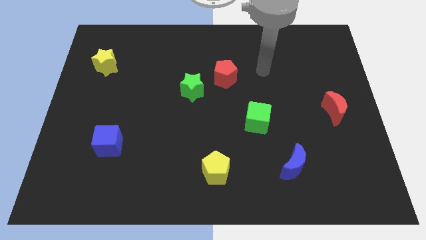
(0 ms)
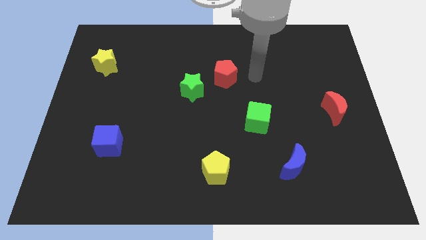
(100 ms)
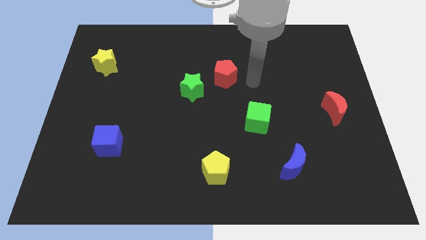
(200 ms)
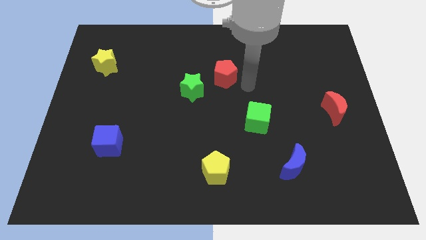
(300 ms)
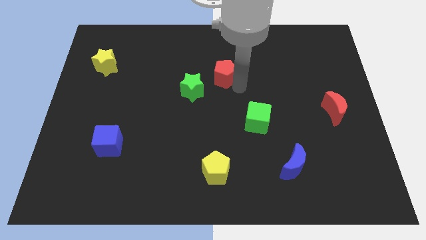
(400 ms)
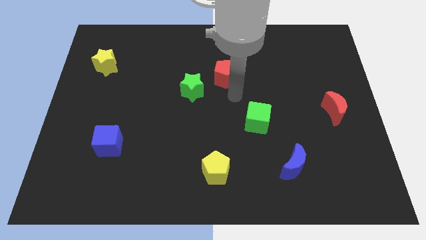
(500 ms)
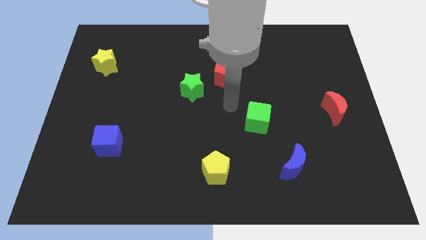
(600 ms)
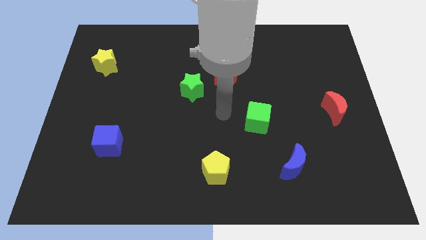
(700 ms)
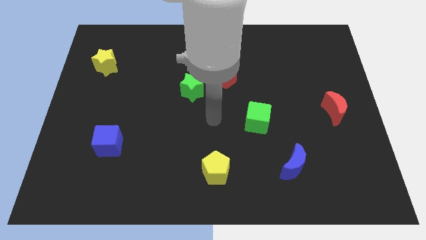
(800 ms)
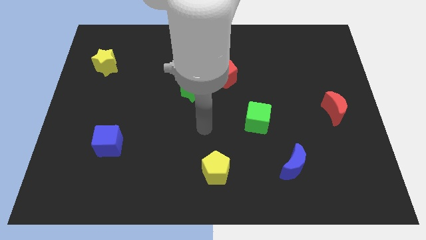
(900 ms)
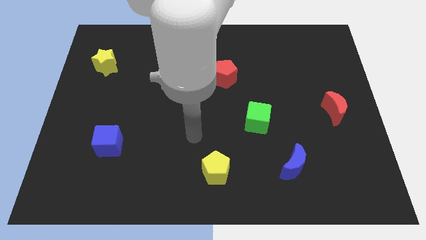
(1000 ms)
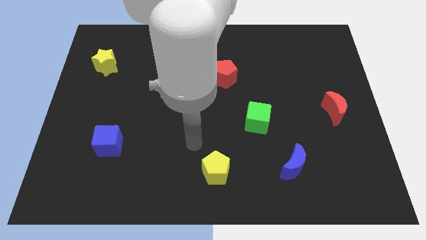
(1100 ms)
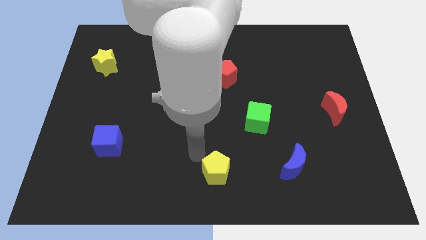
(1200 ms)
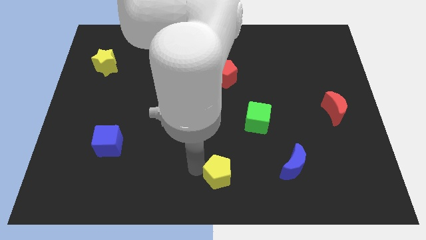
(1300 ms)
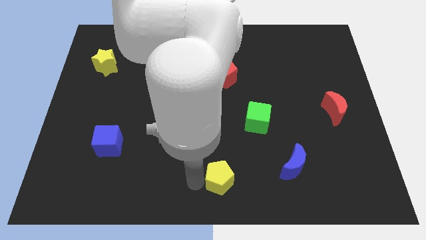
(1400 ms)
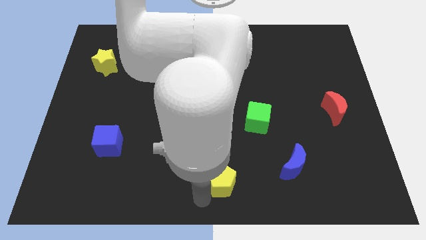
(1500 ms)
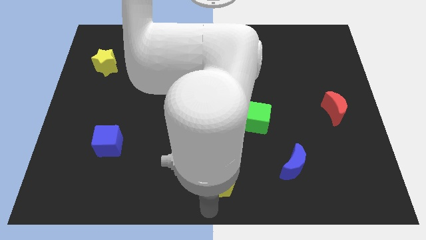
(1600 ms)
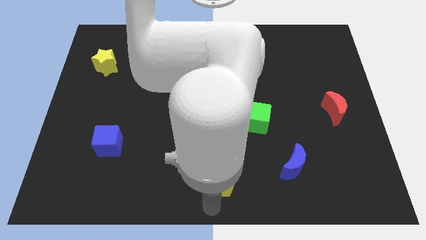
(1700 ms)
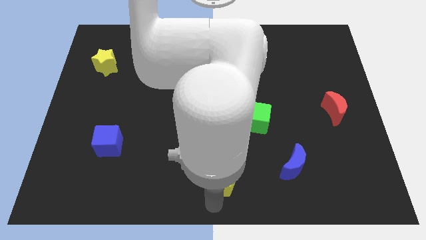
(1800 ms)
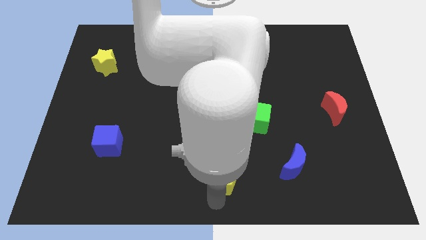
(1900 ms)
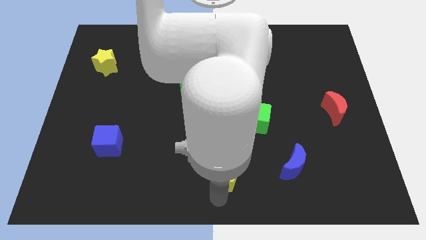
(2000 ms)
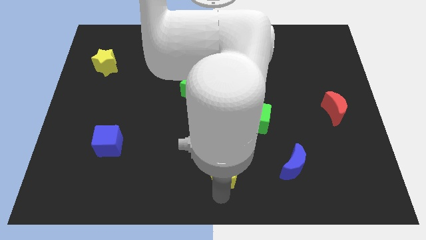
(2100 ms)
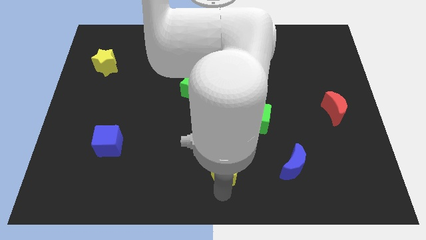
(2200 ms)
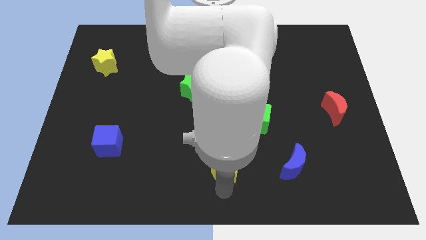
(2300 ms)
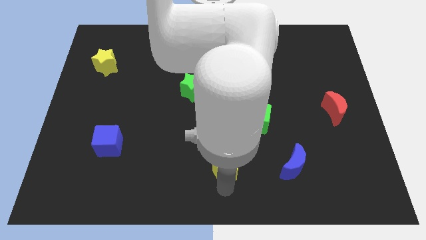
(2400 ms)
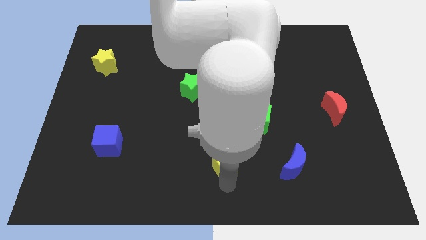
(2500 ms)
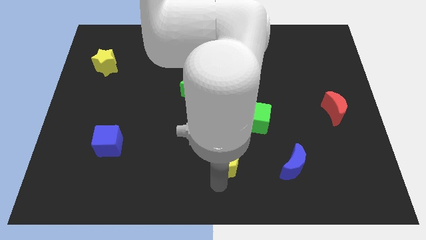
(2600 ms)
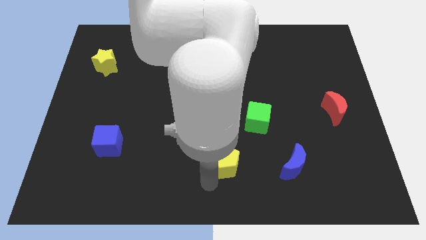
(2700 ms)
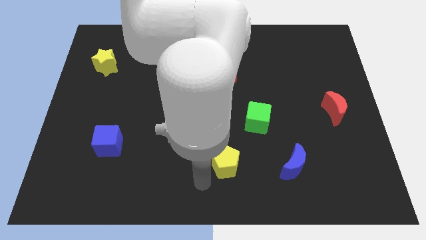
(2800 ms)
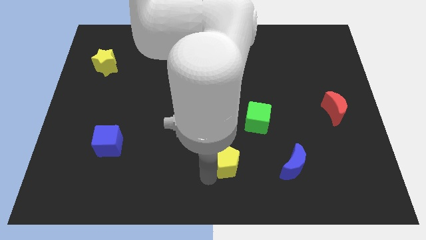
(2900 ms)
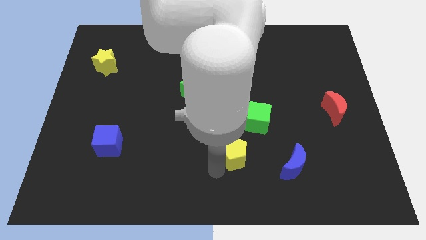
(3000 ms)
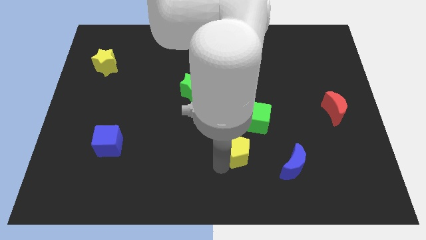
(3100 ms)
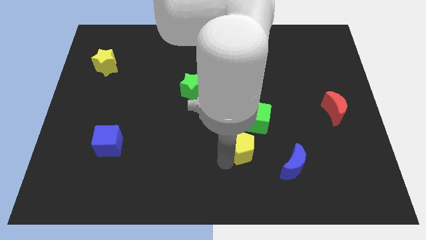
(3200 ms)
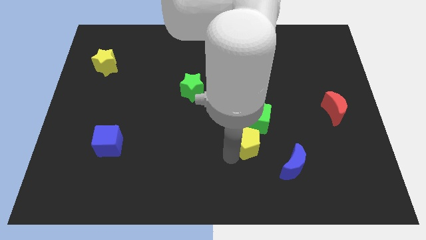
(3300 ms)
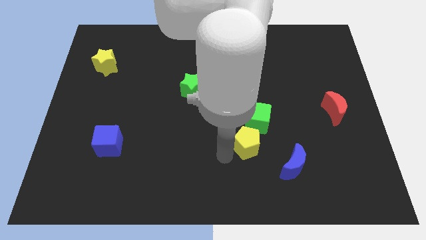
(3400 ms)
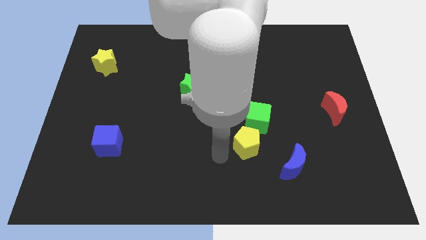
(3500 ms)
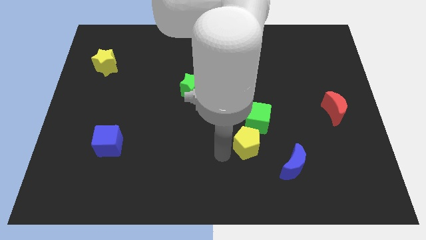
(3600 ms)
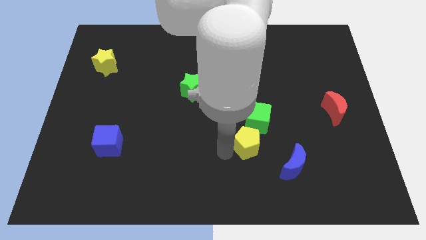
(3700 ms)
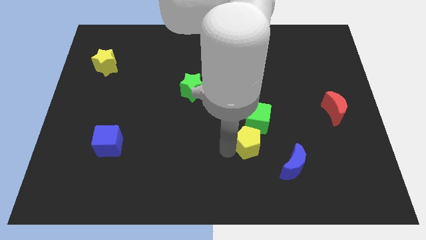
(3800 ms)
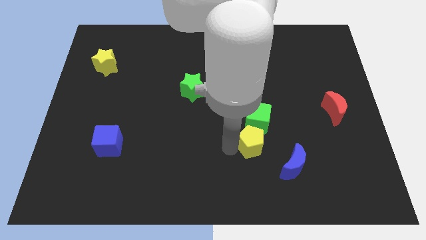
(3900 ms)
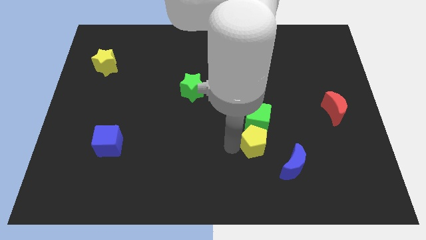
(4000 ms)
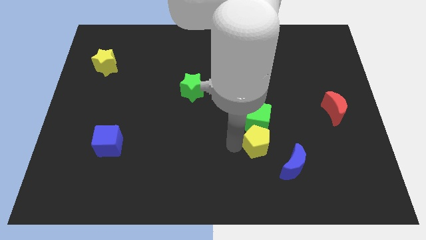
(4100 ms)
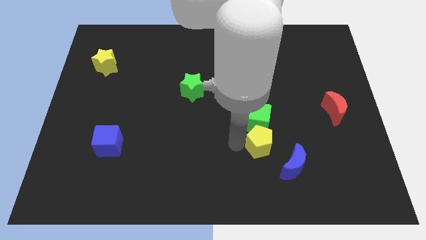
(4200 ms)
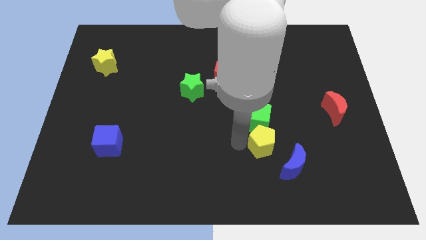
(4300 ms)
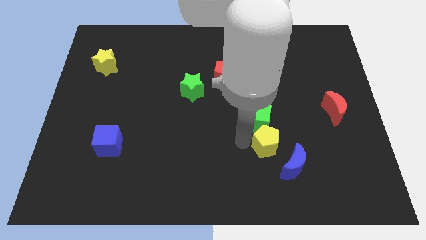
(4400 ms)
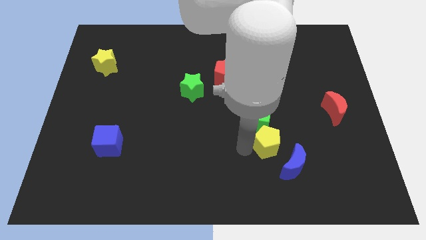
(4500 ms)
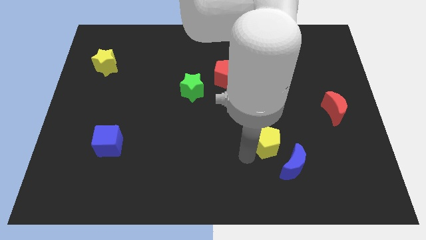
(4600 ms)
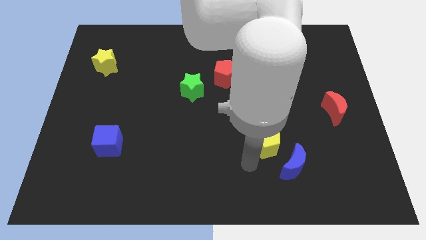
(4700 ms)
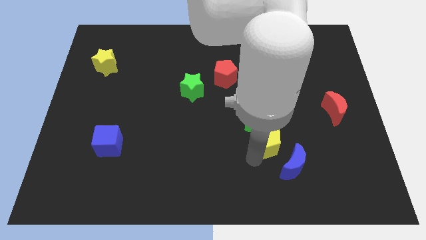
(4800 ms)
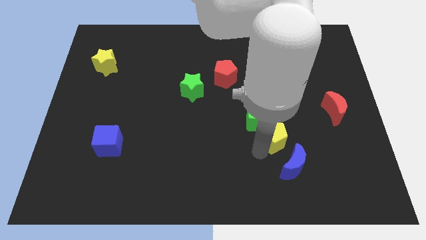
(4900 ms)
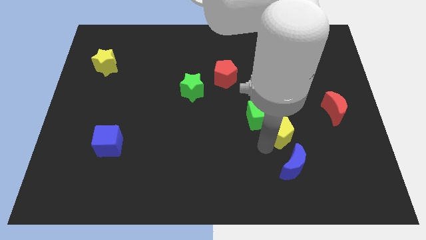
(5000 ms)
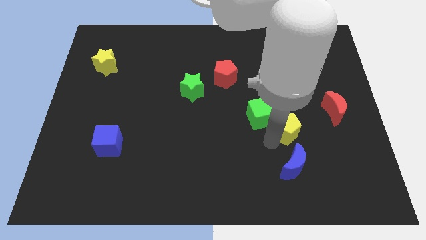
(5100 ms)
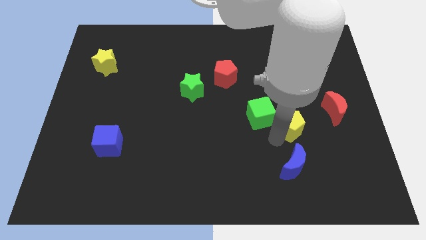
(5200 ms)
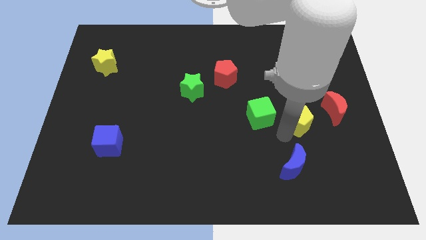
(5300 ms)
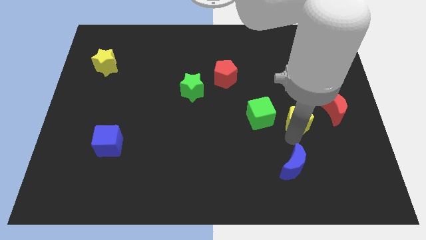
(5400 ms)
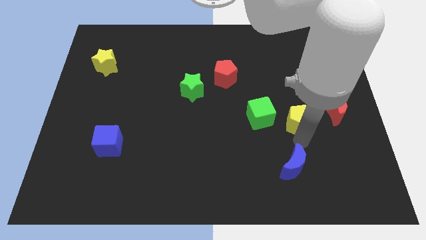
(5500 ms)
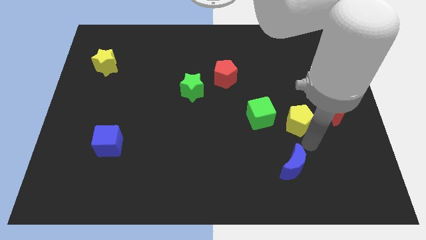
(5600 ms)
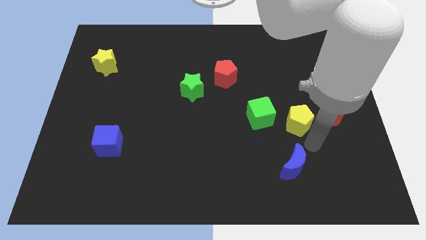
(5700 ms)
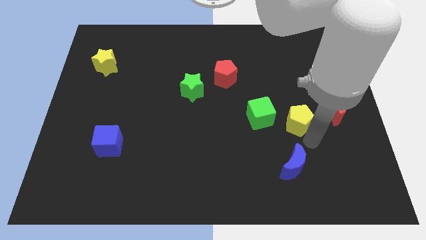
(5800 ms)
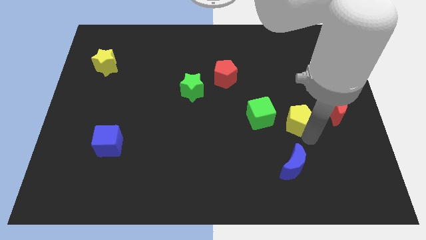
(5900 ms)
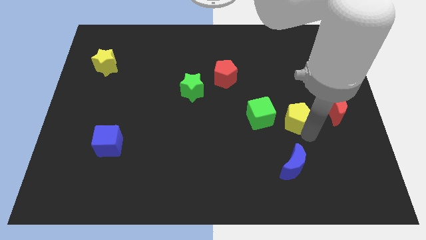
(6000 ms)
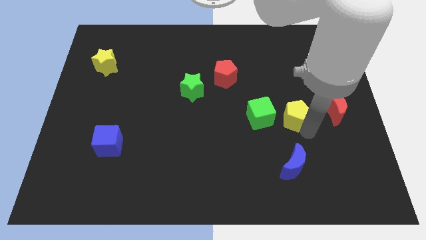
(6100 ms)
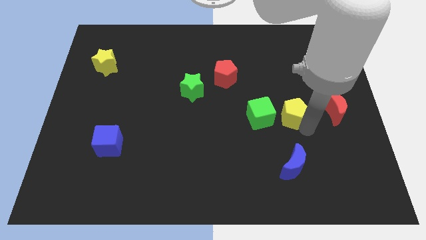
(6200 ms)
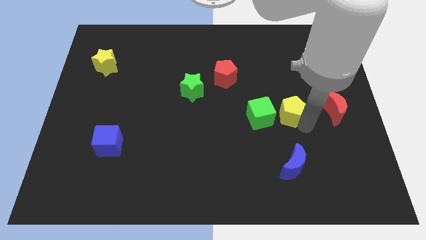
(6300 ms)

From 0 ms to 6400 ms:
put the yellow pentagon to the top right side of the green cube
